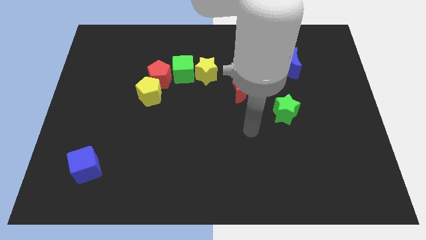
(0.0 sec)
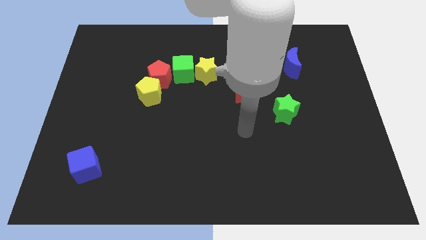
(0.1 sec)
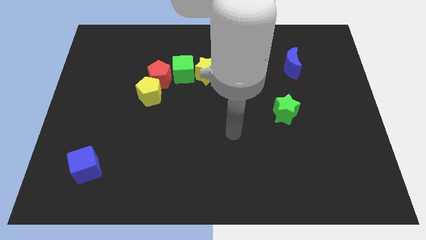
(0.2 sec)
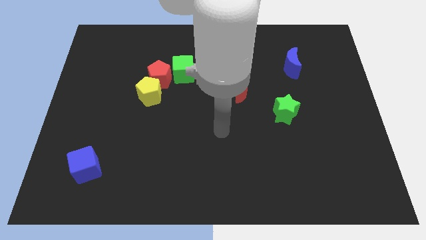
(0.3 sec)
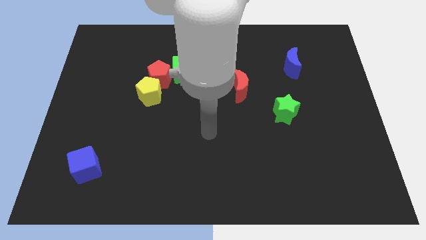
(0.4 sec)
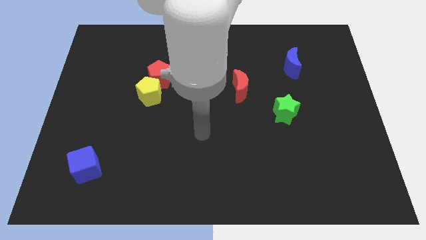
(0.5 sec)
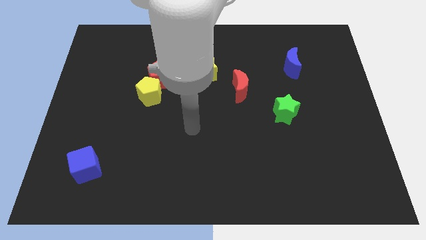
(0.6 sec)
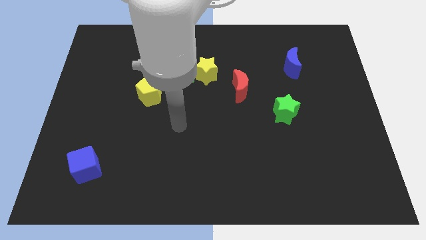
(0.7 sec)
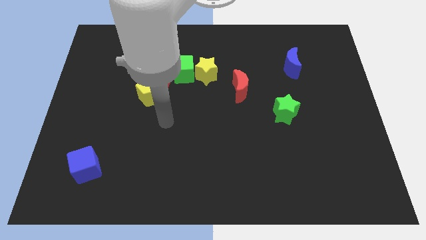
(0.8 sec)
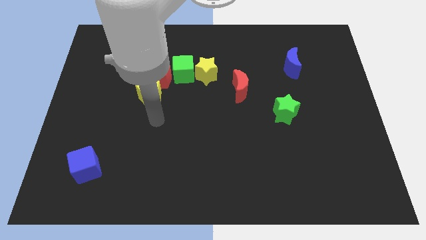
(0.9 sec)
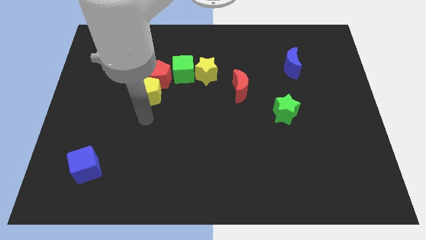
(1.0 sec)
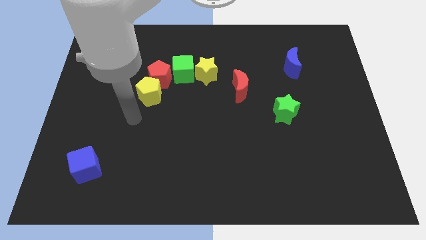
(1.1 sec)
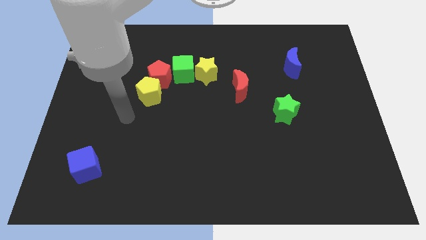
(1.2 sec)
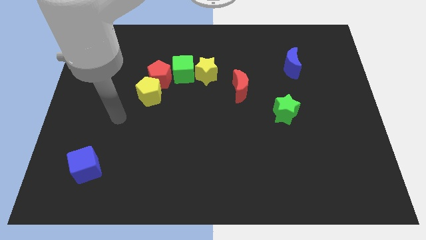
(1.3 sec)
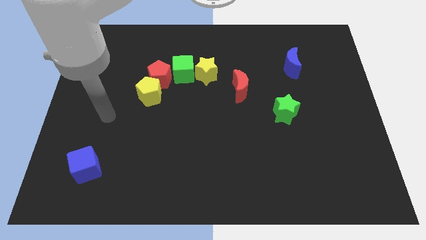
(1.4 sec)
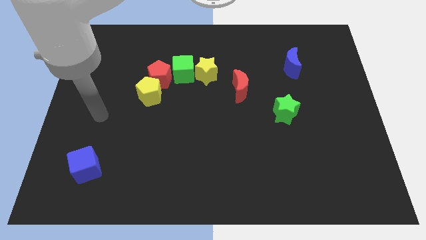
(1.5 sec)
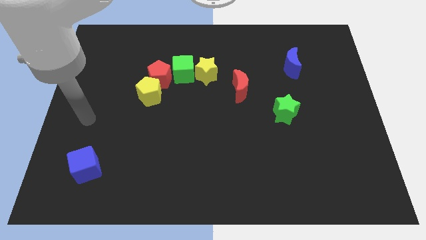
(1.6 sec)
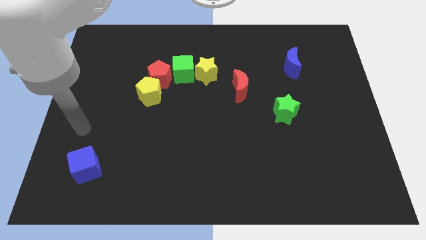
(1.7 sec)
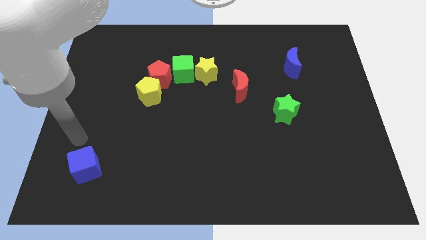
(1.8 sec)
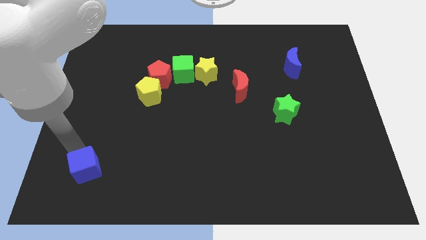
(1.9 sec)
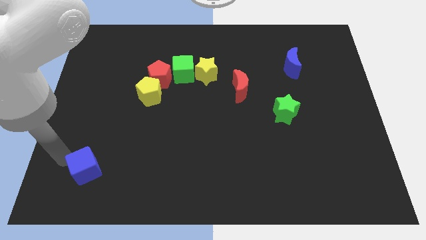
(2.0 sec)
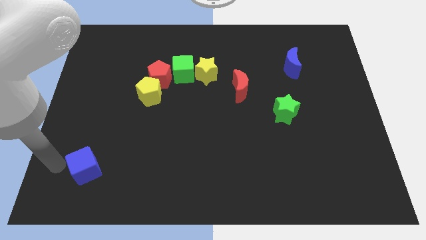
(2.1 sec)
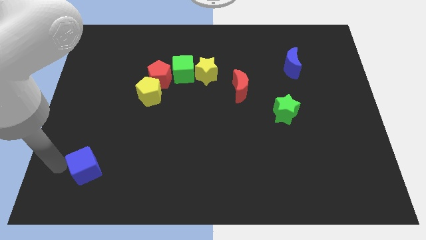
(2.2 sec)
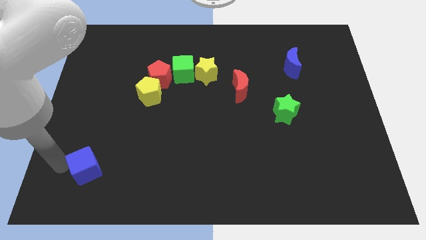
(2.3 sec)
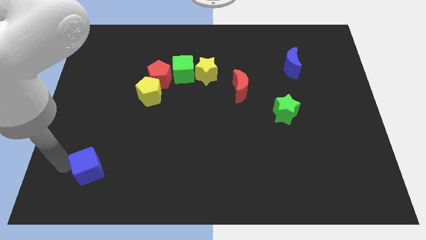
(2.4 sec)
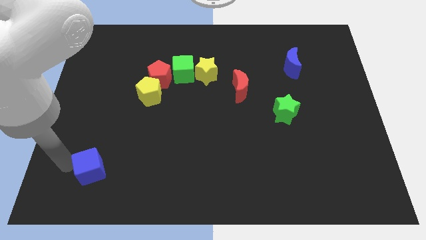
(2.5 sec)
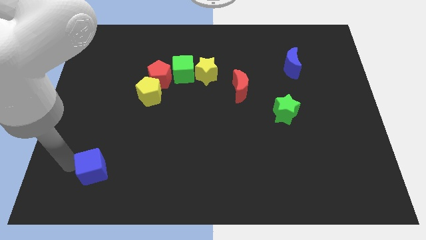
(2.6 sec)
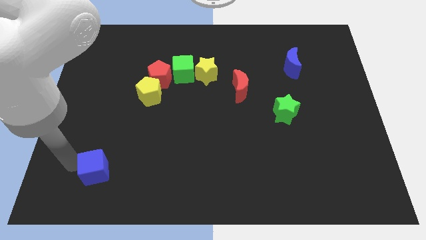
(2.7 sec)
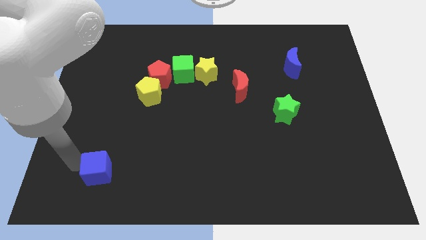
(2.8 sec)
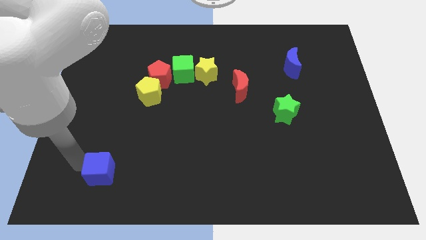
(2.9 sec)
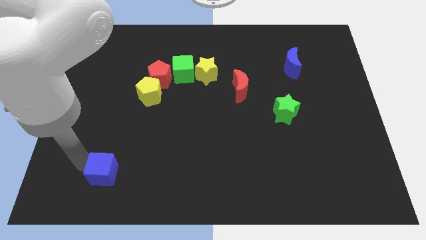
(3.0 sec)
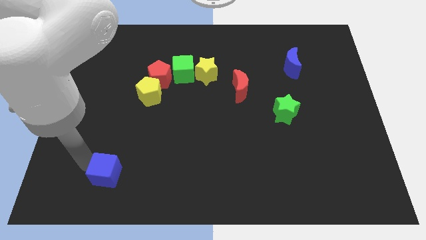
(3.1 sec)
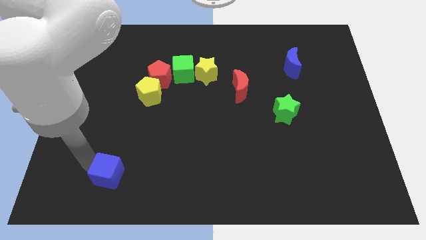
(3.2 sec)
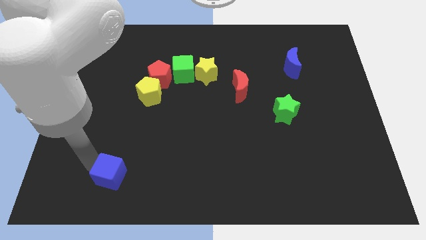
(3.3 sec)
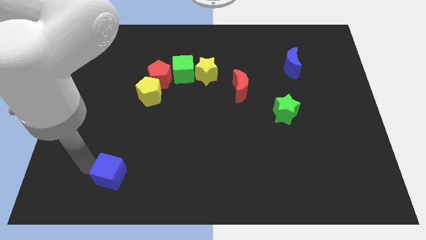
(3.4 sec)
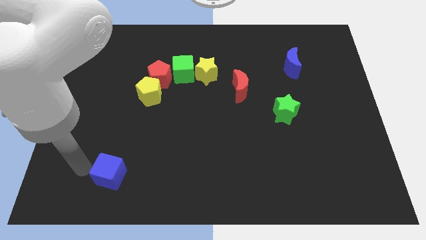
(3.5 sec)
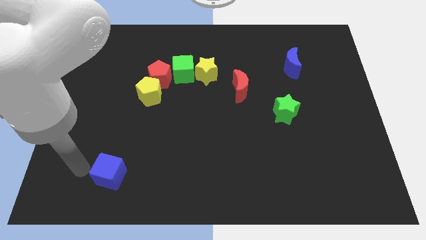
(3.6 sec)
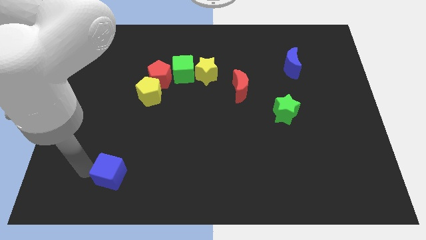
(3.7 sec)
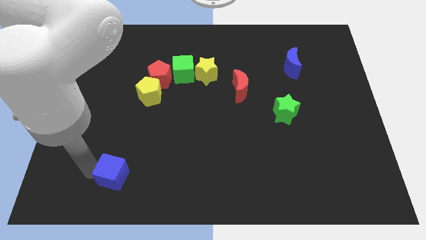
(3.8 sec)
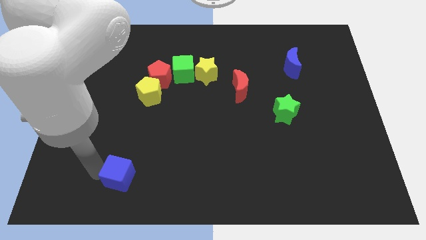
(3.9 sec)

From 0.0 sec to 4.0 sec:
push the blue cube a little bit right

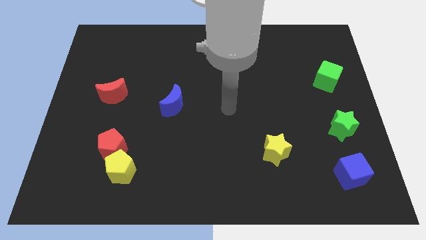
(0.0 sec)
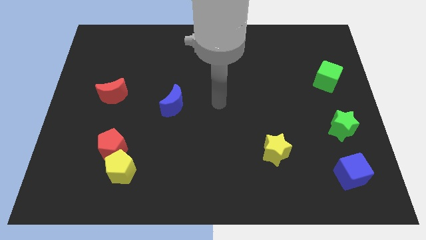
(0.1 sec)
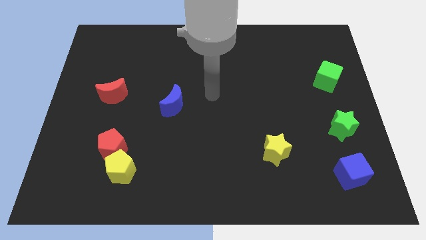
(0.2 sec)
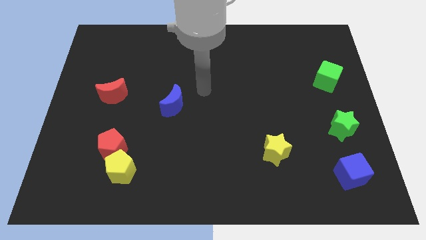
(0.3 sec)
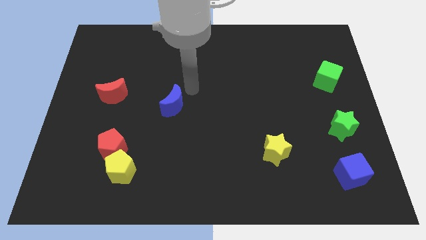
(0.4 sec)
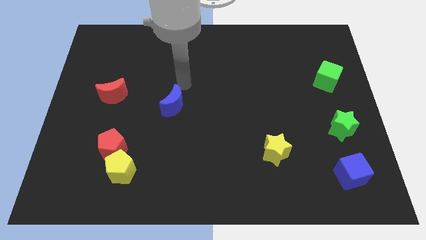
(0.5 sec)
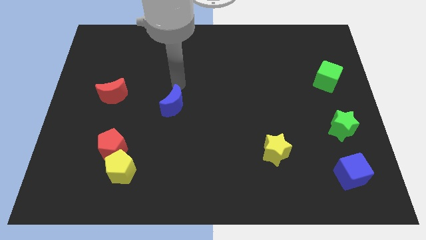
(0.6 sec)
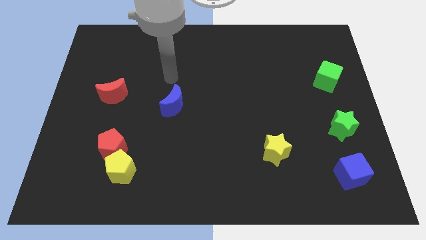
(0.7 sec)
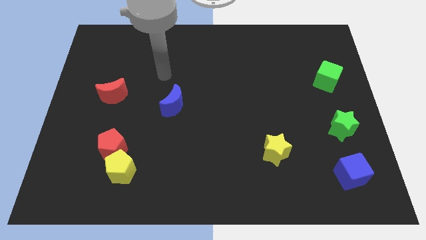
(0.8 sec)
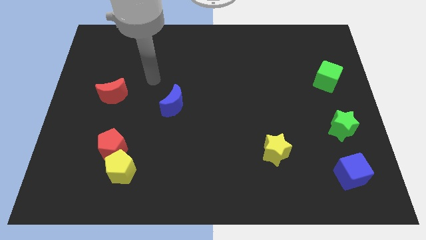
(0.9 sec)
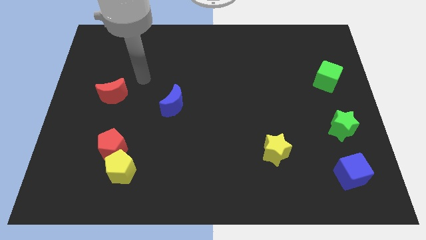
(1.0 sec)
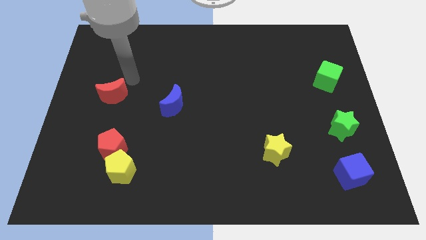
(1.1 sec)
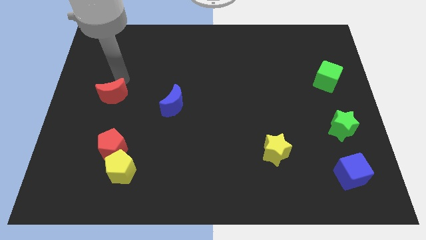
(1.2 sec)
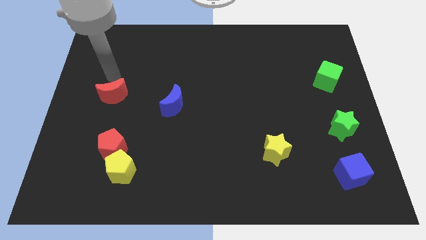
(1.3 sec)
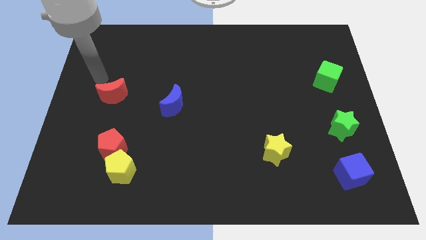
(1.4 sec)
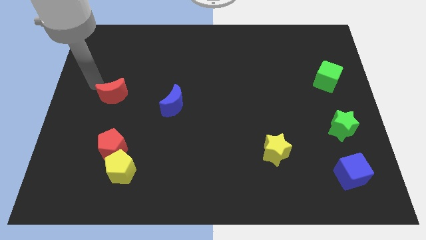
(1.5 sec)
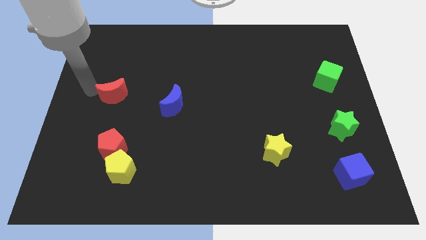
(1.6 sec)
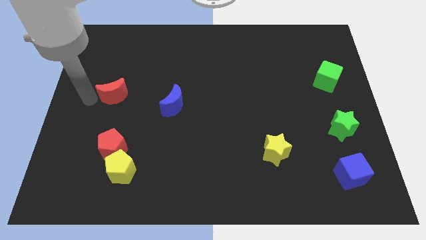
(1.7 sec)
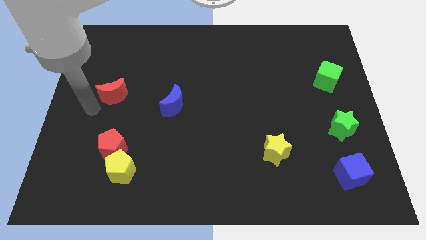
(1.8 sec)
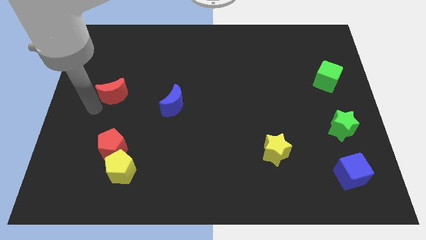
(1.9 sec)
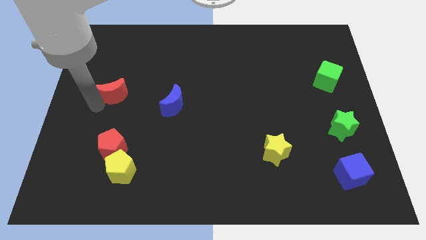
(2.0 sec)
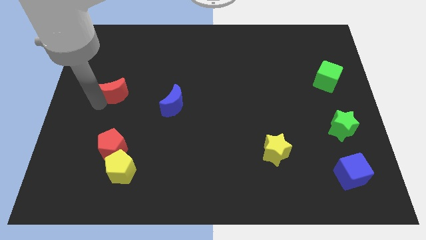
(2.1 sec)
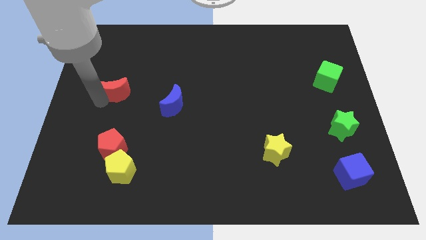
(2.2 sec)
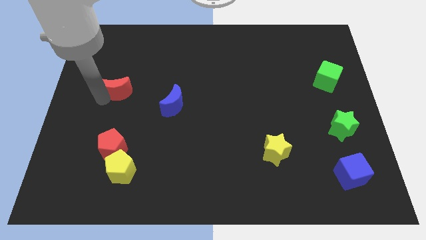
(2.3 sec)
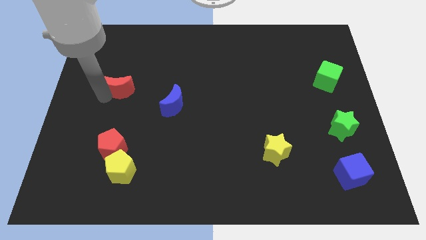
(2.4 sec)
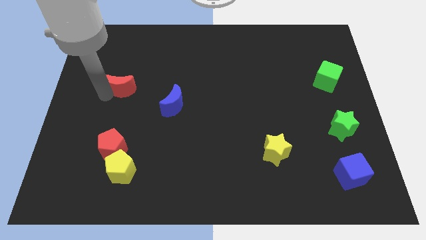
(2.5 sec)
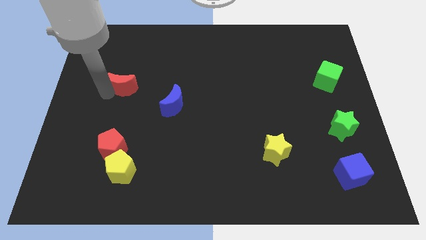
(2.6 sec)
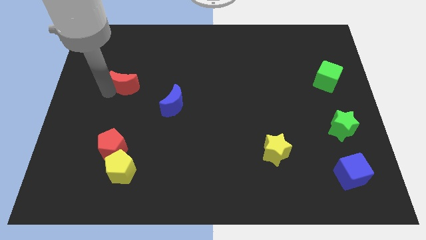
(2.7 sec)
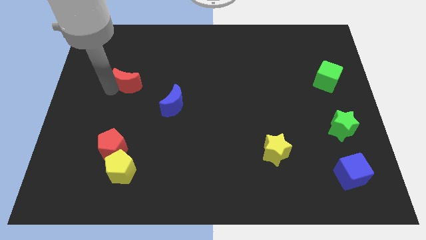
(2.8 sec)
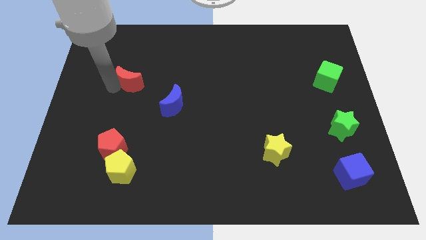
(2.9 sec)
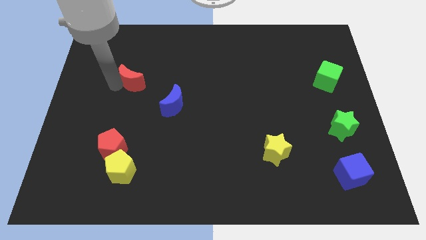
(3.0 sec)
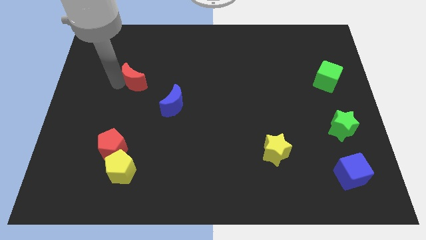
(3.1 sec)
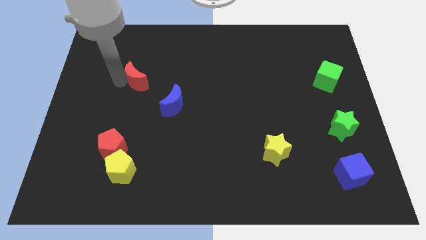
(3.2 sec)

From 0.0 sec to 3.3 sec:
slightly slide the red moon upwards and then right

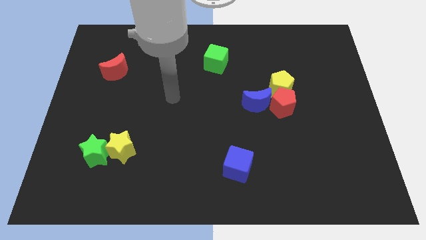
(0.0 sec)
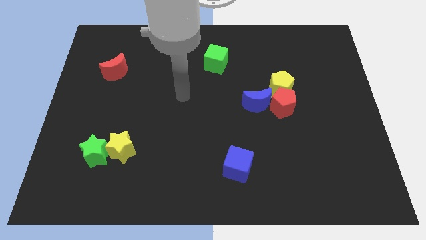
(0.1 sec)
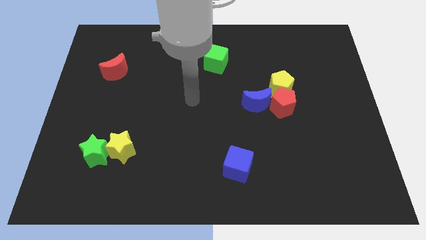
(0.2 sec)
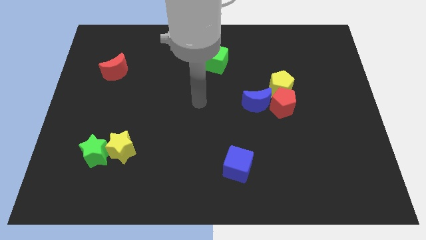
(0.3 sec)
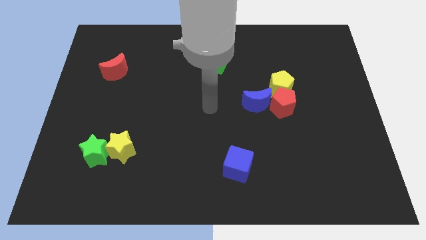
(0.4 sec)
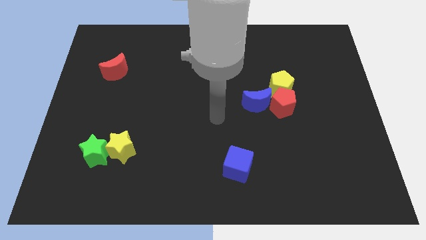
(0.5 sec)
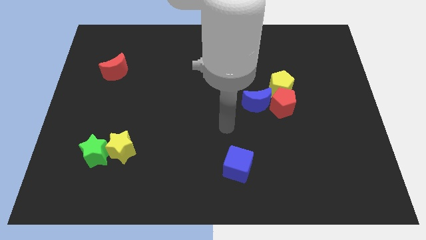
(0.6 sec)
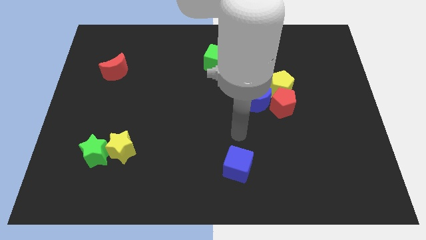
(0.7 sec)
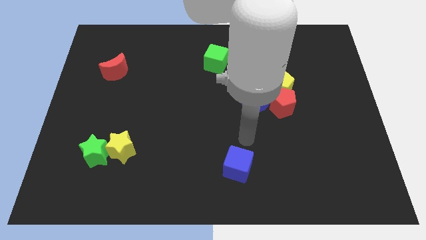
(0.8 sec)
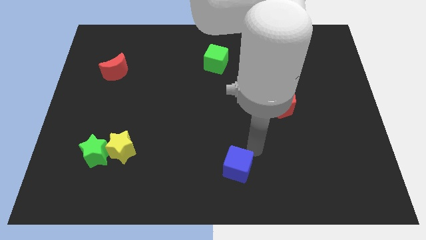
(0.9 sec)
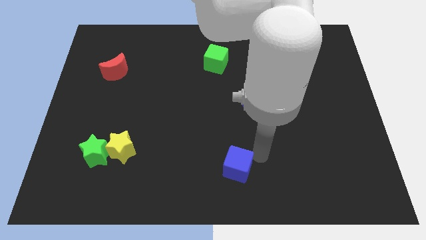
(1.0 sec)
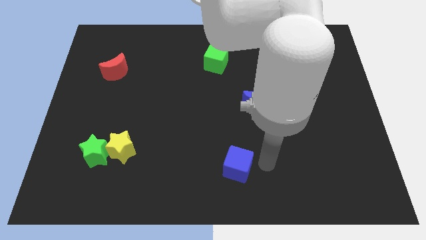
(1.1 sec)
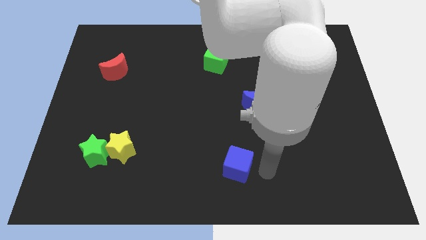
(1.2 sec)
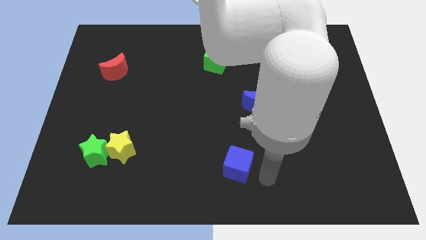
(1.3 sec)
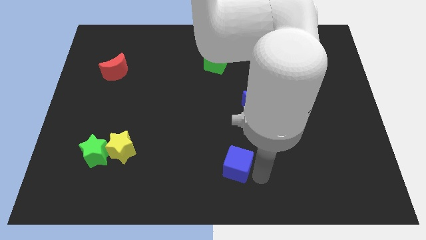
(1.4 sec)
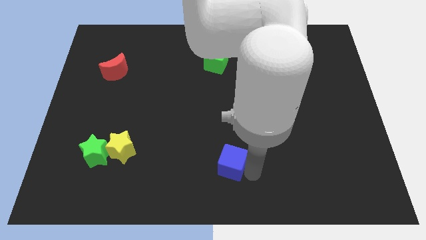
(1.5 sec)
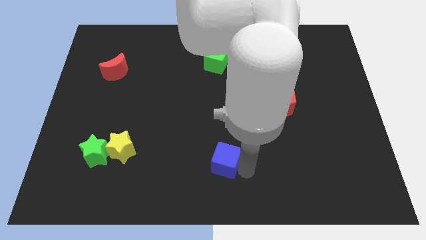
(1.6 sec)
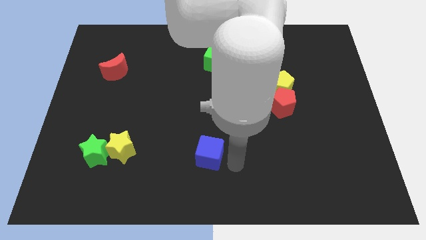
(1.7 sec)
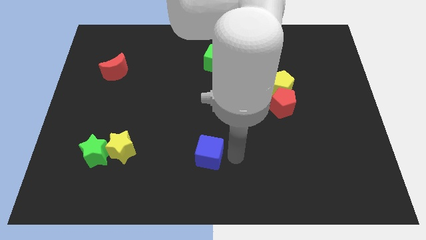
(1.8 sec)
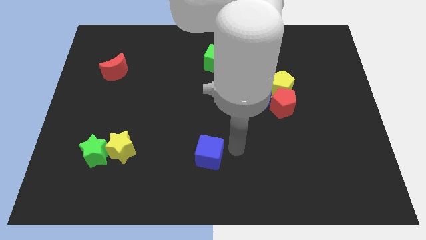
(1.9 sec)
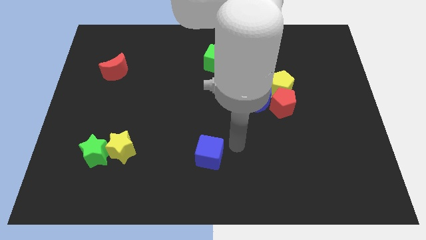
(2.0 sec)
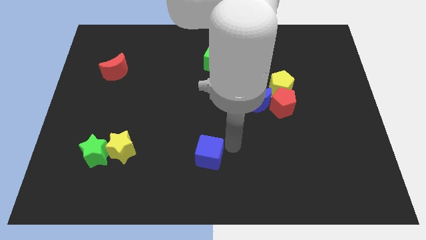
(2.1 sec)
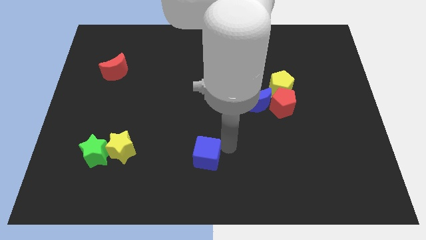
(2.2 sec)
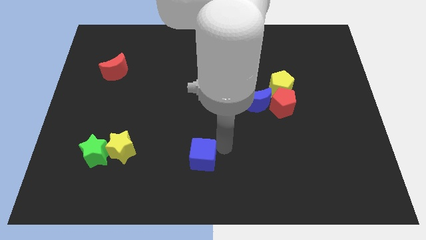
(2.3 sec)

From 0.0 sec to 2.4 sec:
move the blue cube left slightly
